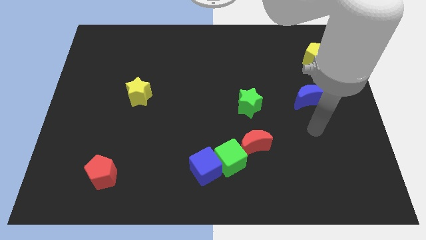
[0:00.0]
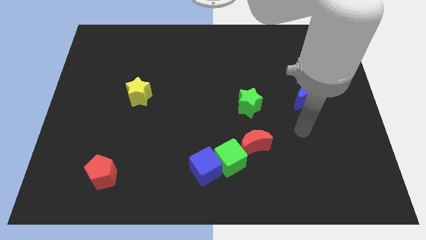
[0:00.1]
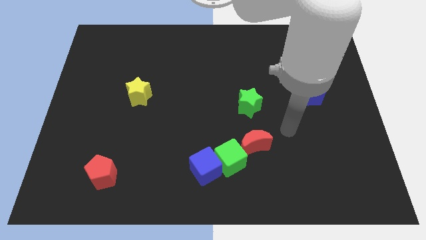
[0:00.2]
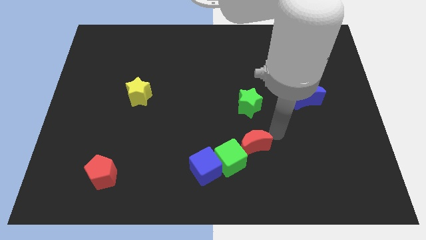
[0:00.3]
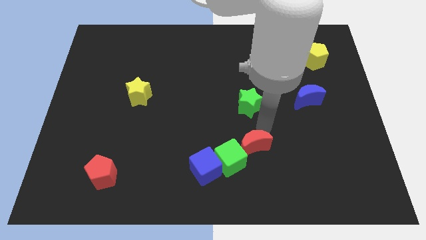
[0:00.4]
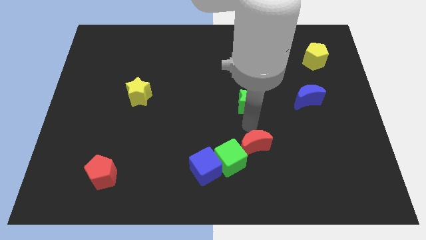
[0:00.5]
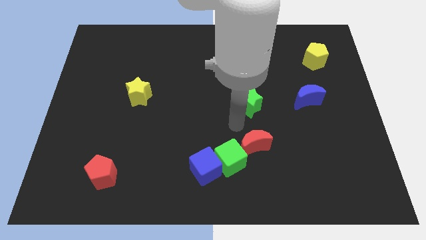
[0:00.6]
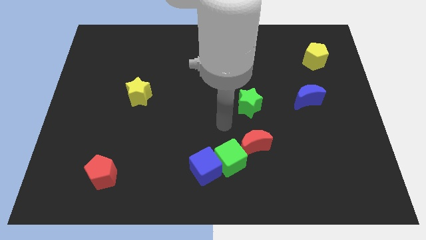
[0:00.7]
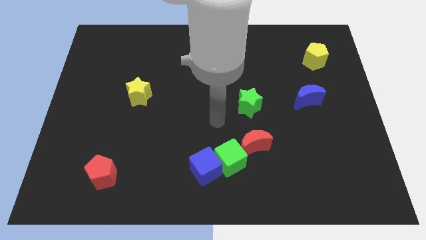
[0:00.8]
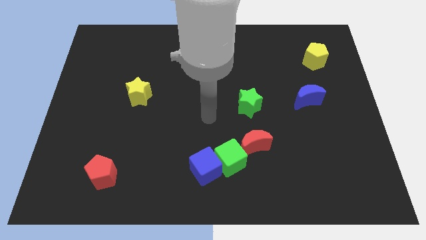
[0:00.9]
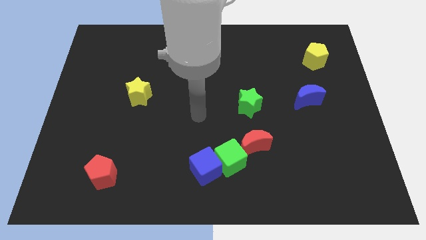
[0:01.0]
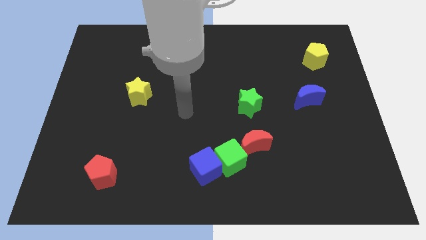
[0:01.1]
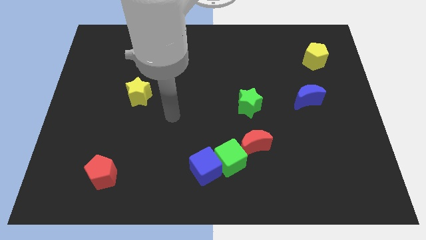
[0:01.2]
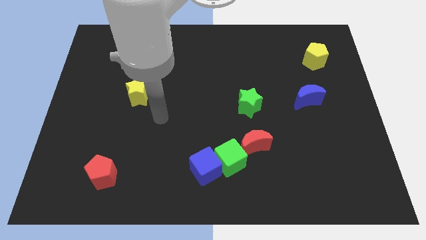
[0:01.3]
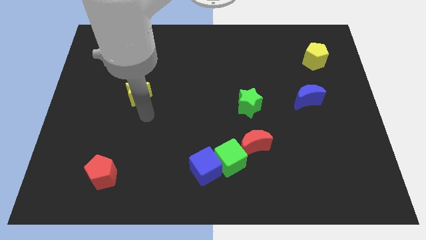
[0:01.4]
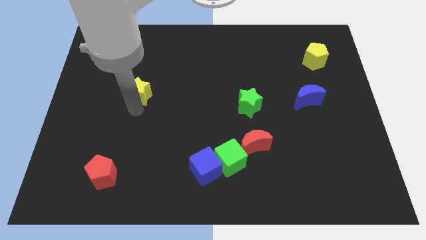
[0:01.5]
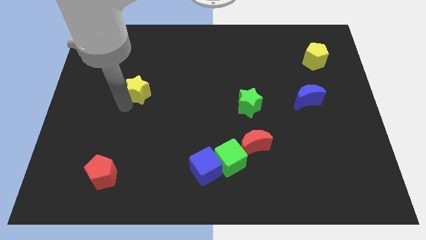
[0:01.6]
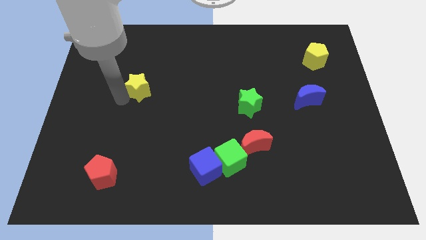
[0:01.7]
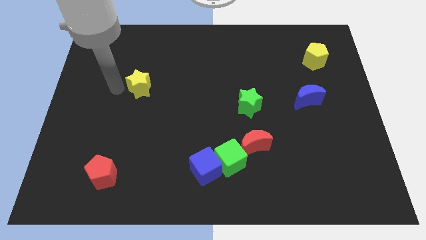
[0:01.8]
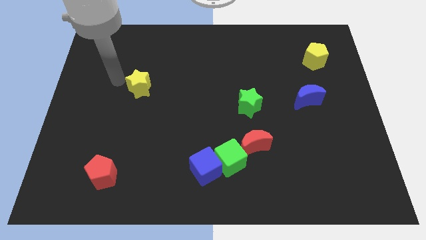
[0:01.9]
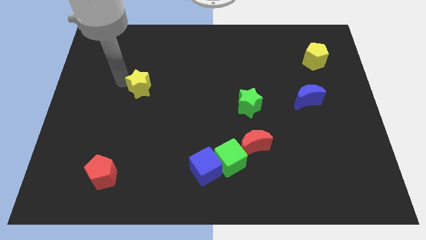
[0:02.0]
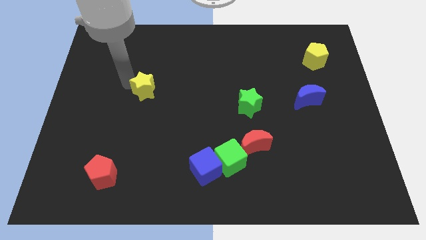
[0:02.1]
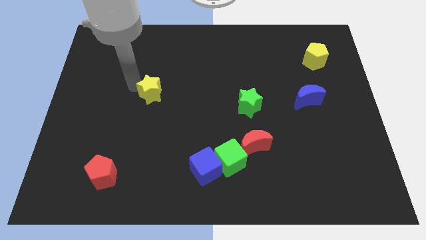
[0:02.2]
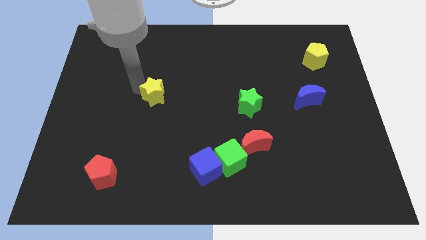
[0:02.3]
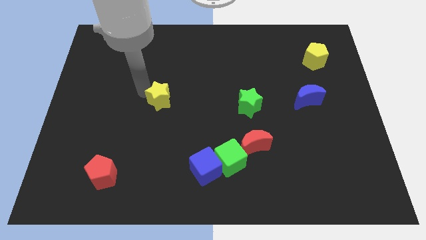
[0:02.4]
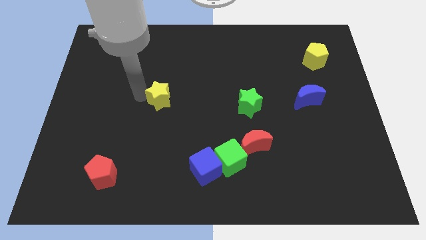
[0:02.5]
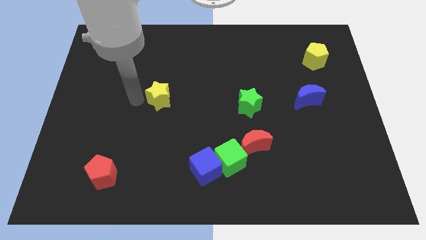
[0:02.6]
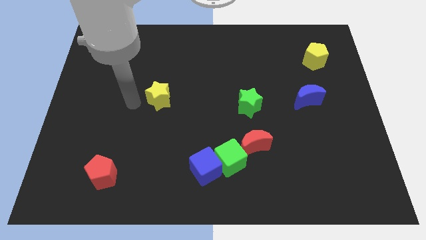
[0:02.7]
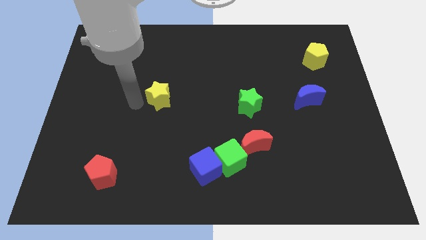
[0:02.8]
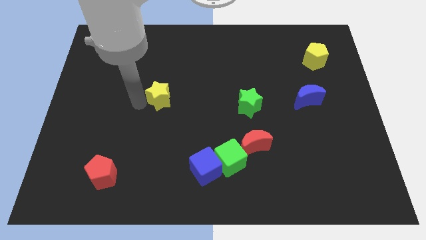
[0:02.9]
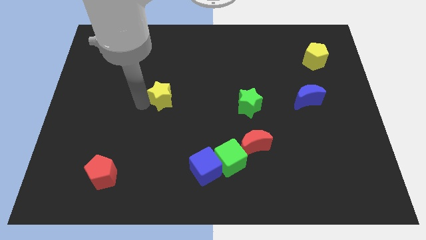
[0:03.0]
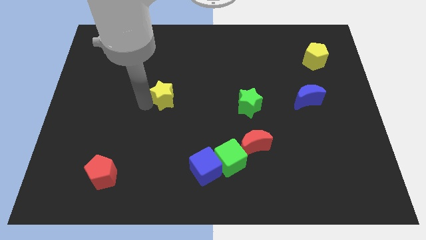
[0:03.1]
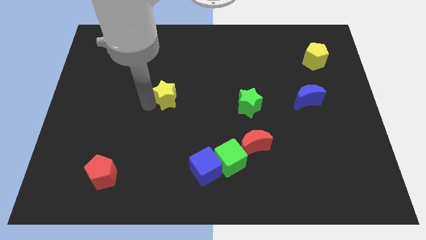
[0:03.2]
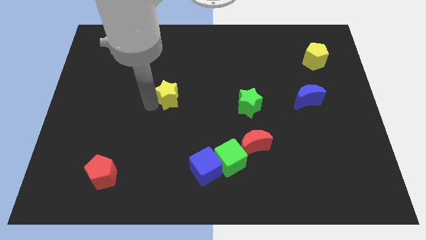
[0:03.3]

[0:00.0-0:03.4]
slide the yellow star to the right a little

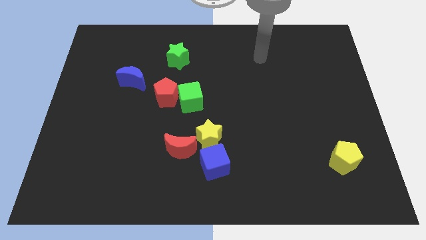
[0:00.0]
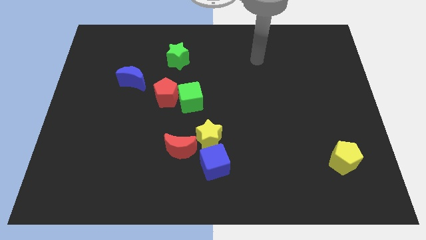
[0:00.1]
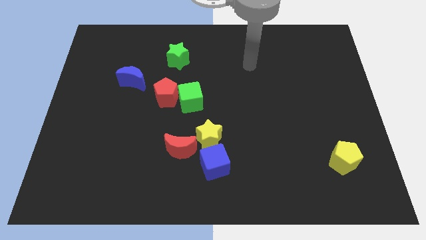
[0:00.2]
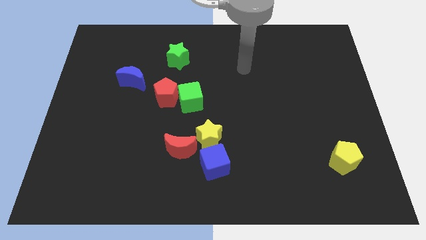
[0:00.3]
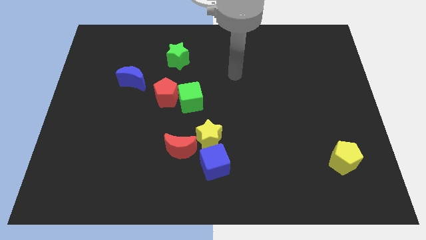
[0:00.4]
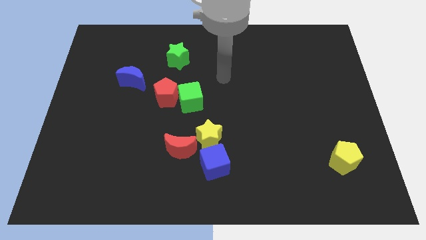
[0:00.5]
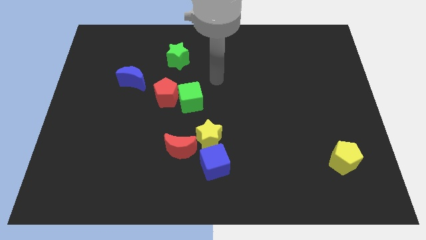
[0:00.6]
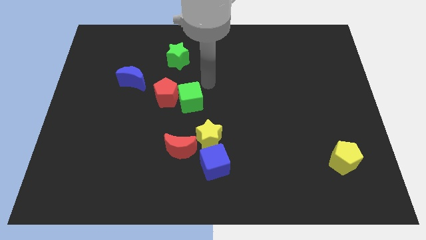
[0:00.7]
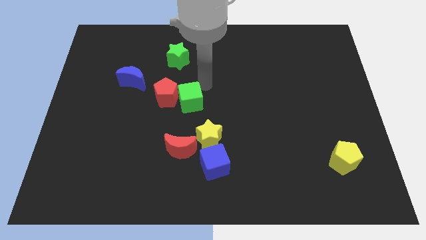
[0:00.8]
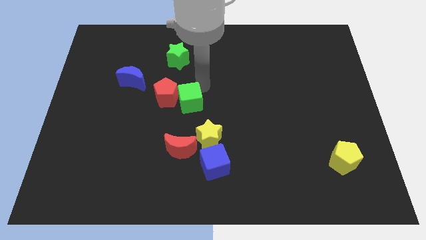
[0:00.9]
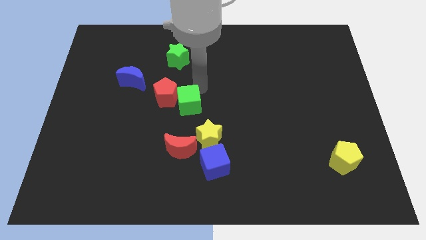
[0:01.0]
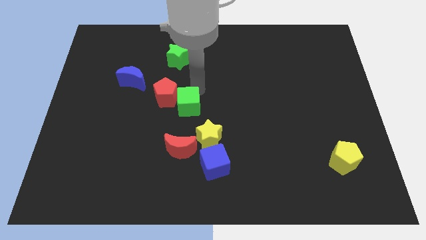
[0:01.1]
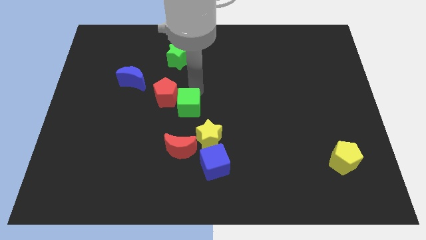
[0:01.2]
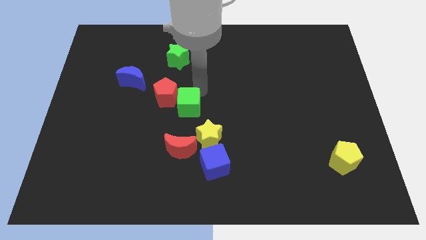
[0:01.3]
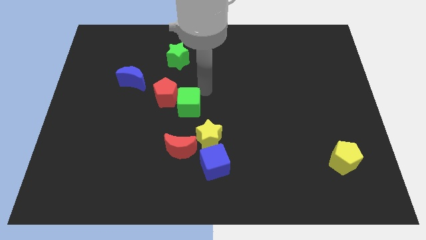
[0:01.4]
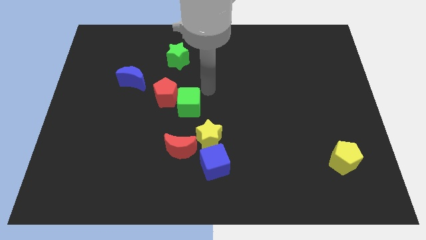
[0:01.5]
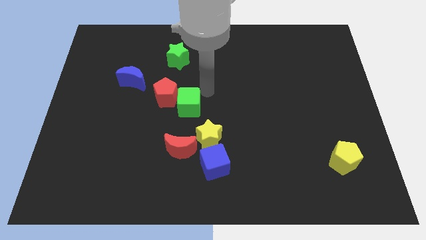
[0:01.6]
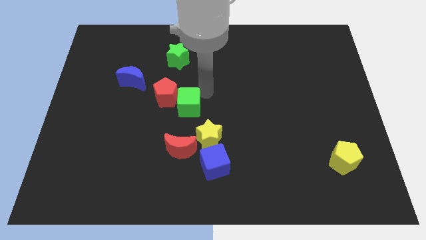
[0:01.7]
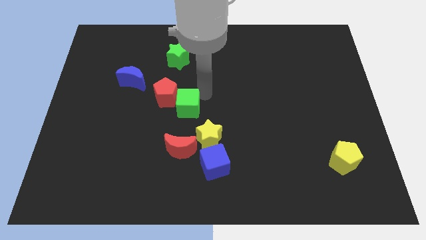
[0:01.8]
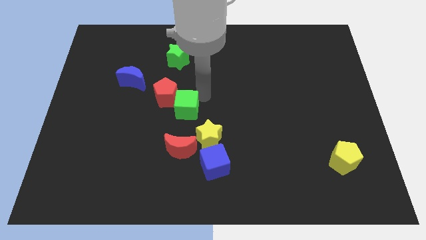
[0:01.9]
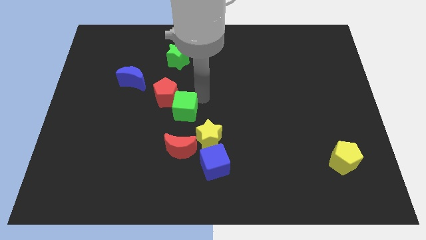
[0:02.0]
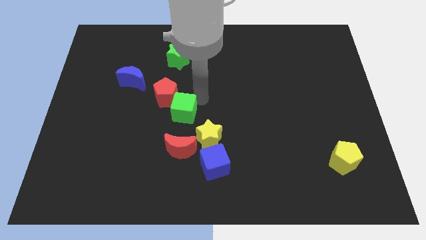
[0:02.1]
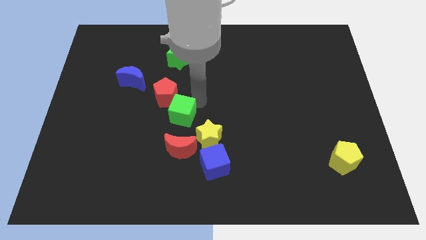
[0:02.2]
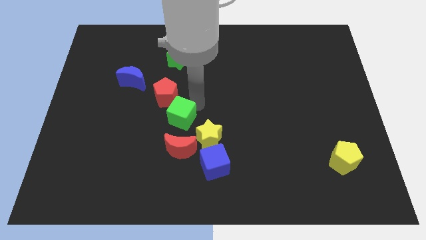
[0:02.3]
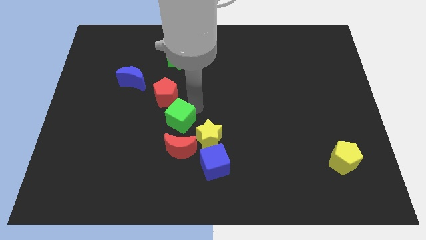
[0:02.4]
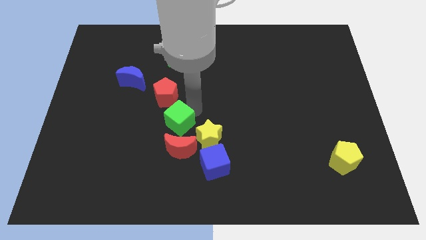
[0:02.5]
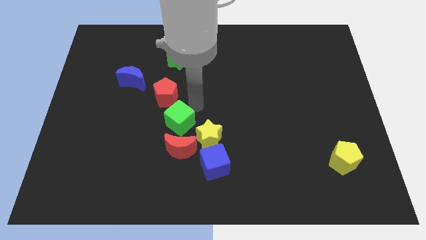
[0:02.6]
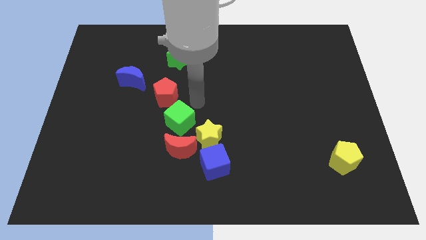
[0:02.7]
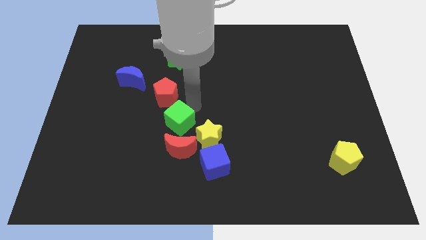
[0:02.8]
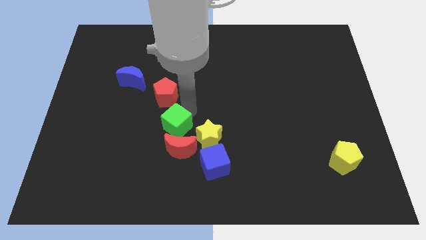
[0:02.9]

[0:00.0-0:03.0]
slide the green cube downwards somewhat

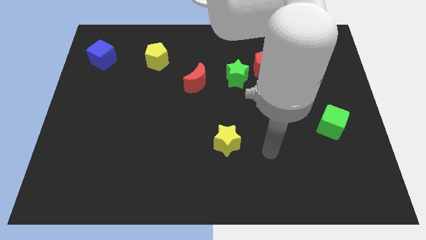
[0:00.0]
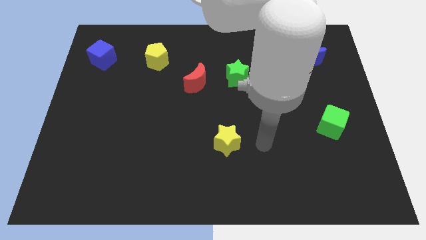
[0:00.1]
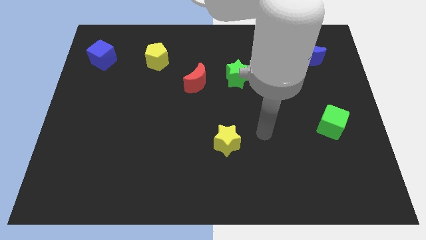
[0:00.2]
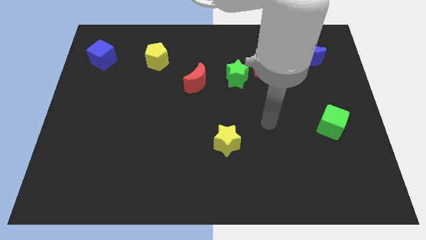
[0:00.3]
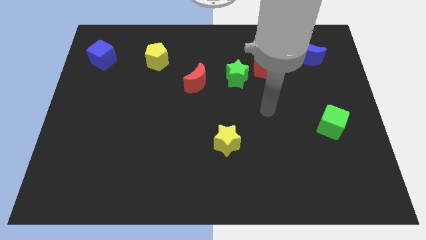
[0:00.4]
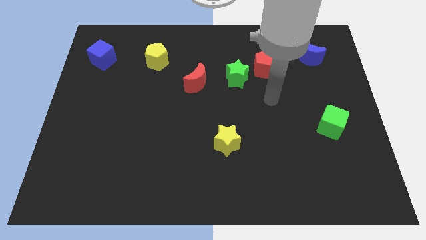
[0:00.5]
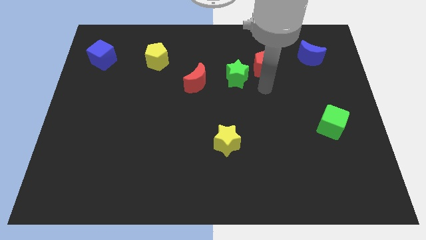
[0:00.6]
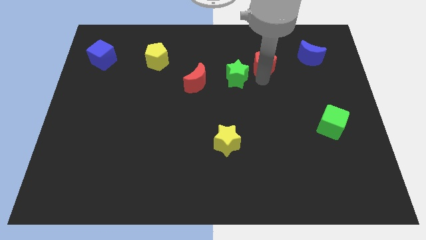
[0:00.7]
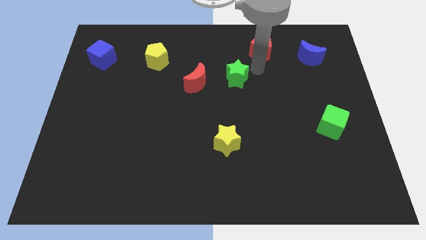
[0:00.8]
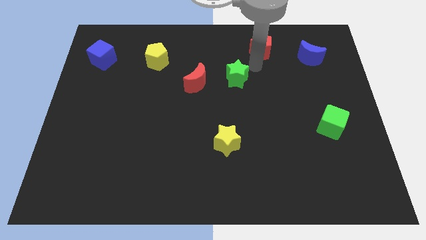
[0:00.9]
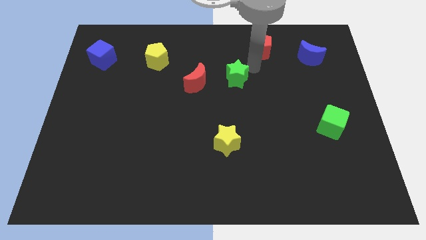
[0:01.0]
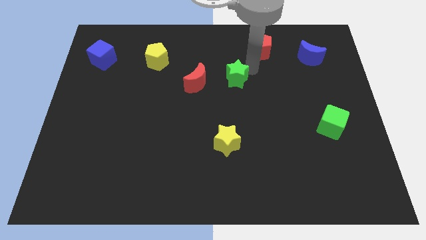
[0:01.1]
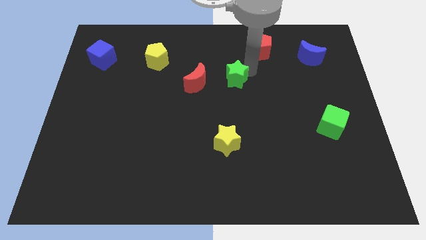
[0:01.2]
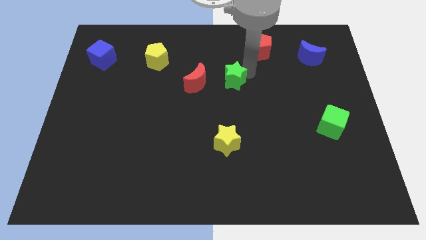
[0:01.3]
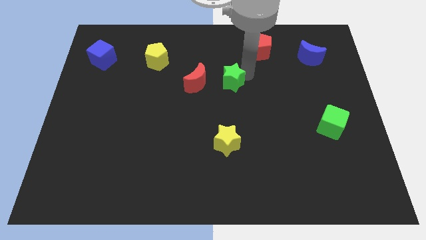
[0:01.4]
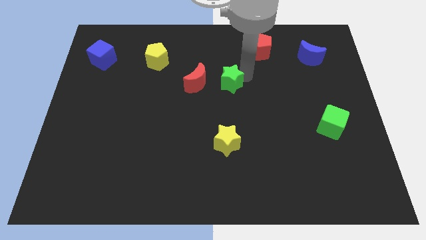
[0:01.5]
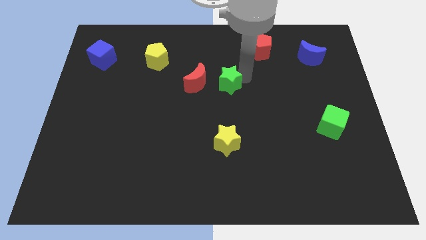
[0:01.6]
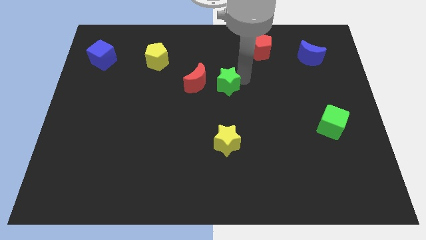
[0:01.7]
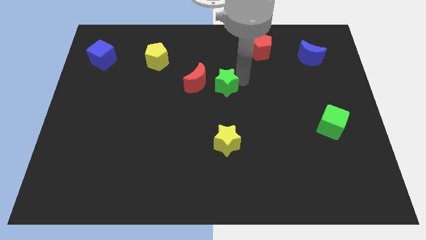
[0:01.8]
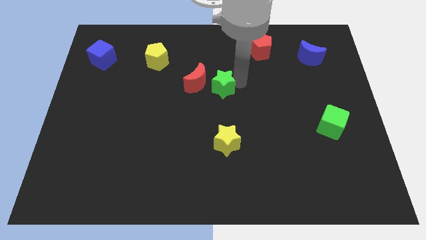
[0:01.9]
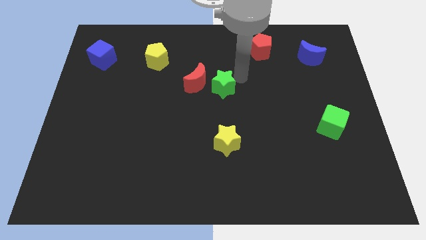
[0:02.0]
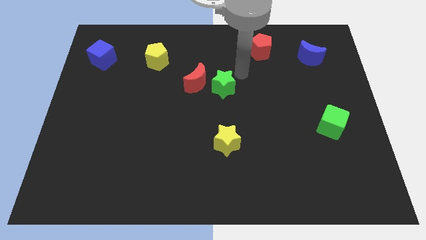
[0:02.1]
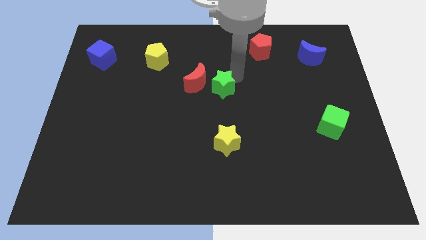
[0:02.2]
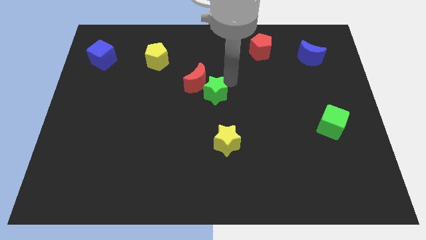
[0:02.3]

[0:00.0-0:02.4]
push the green star somewhat downwards and to the left
